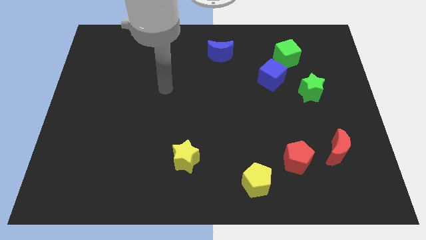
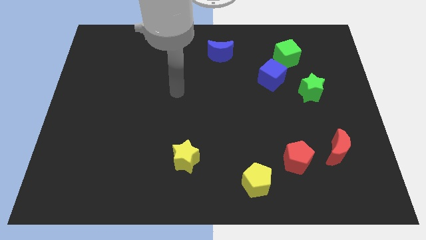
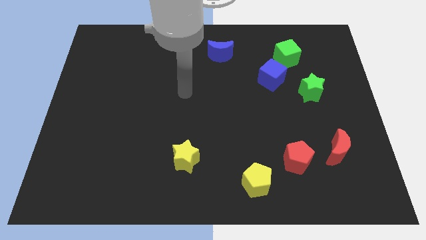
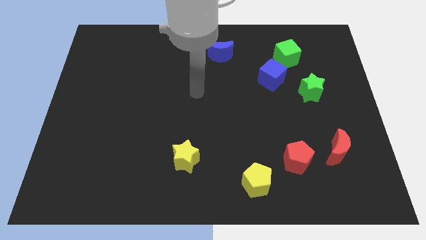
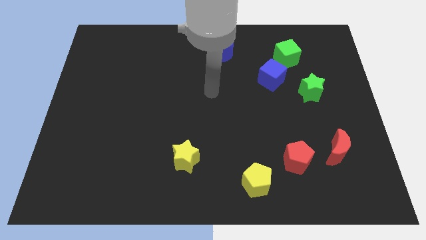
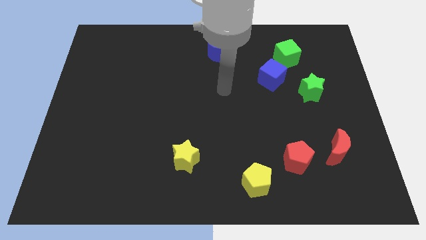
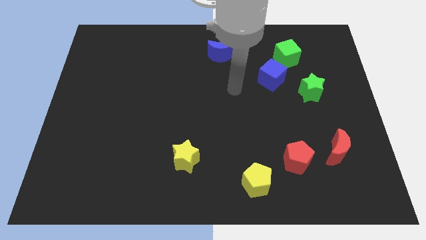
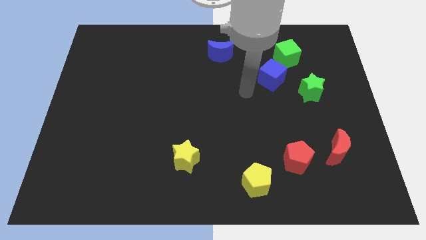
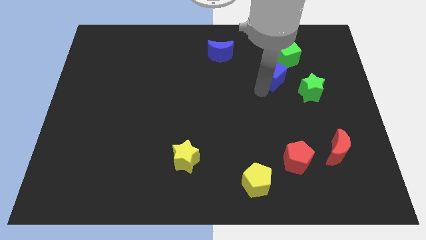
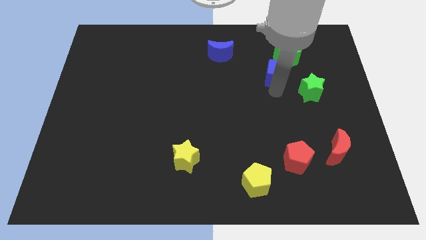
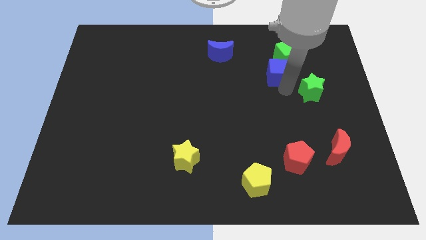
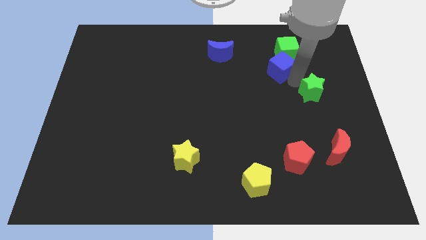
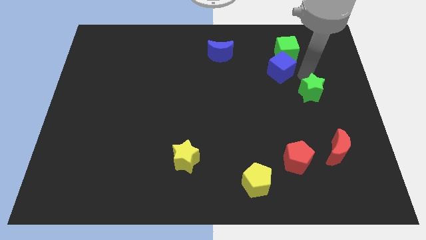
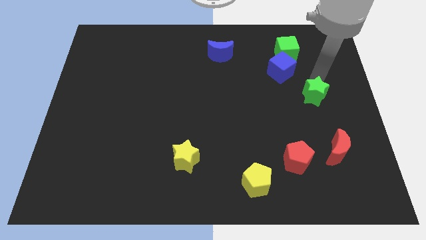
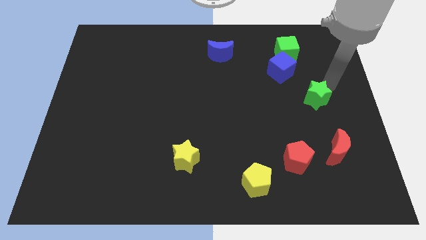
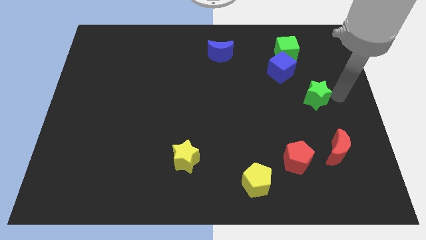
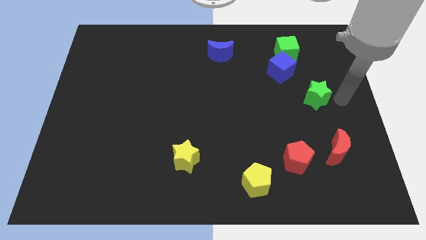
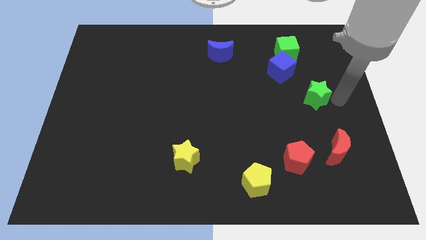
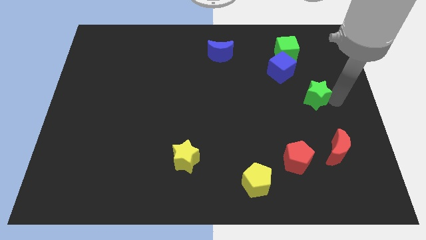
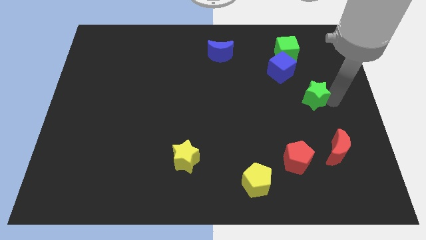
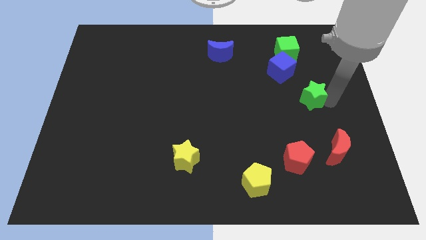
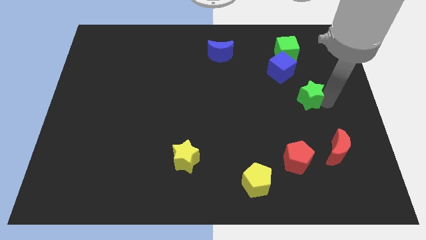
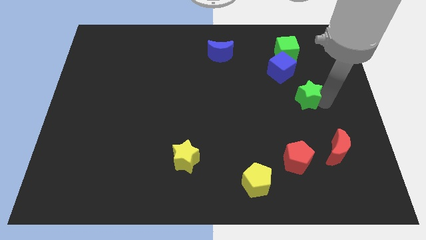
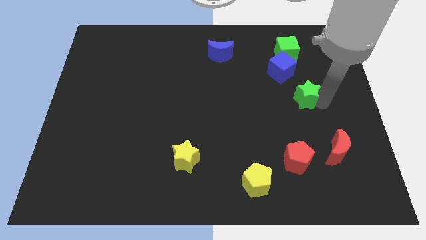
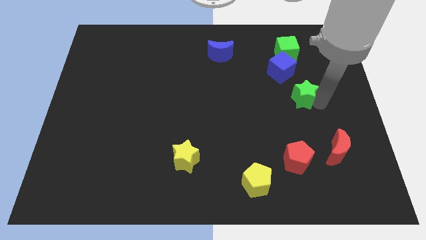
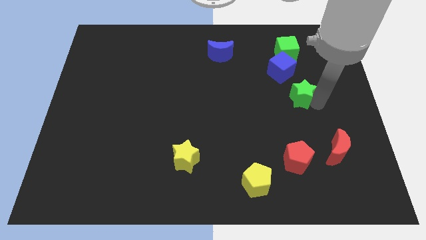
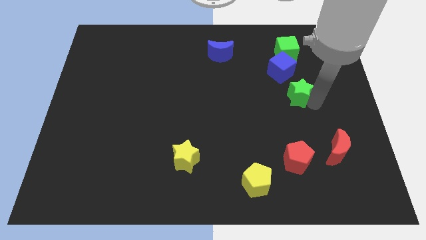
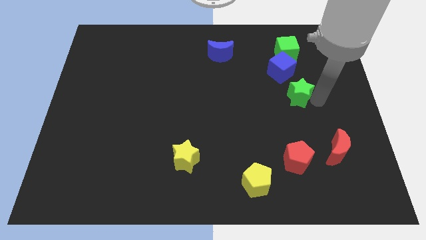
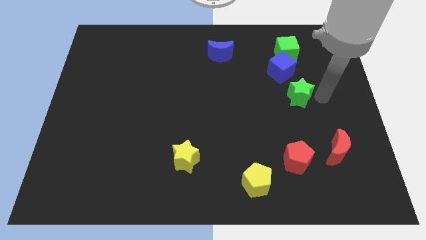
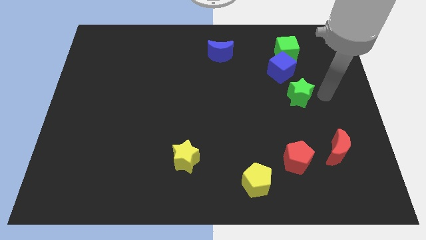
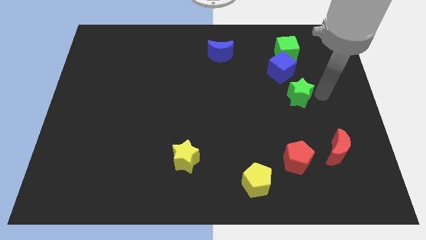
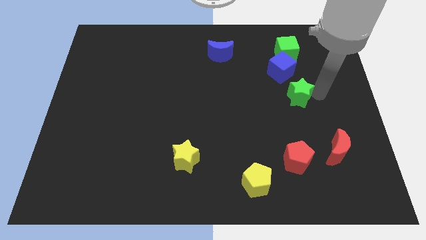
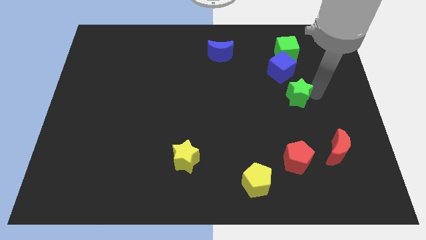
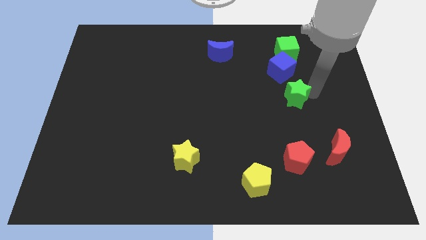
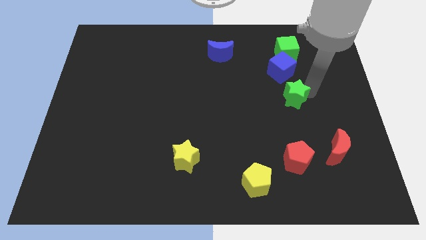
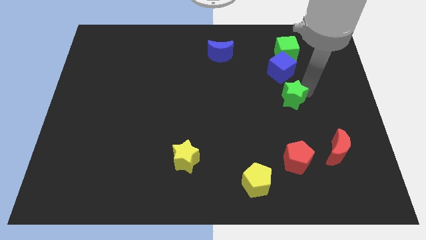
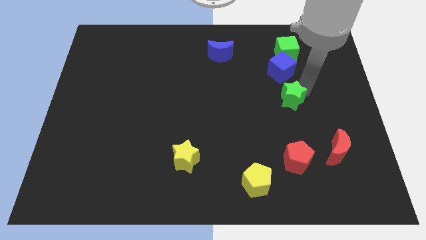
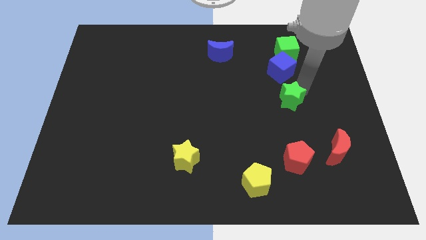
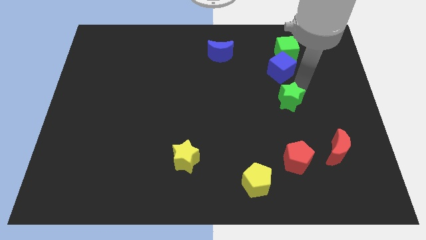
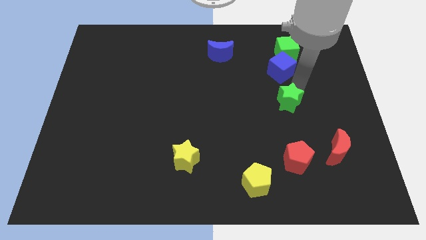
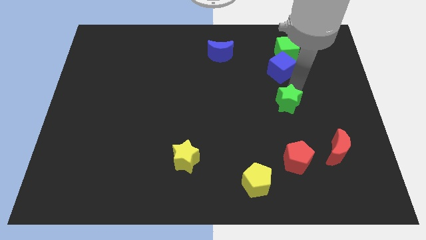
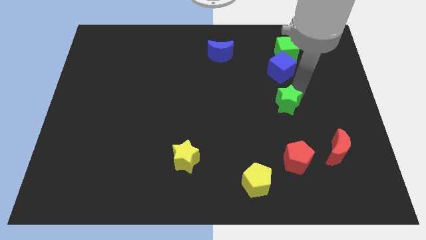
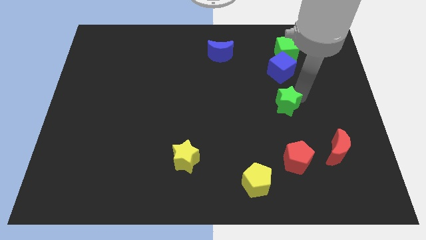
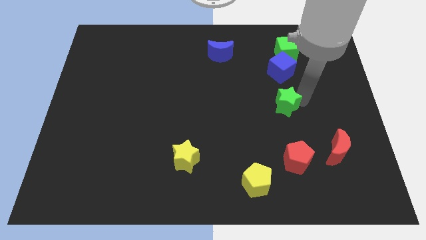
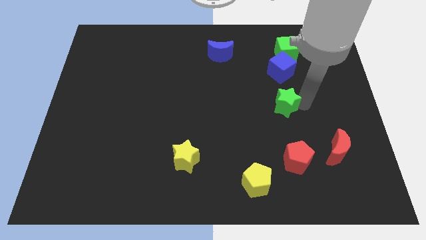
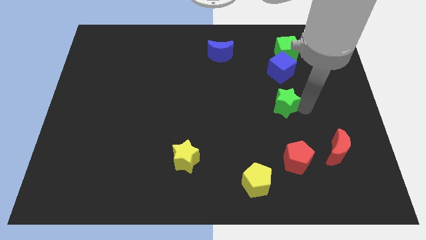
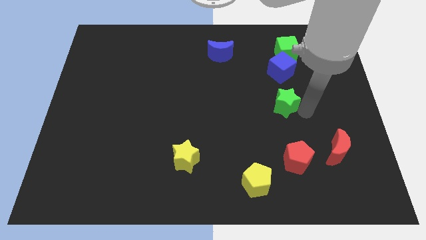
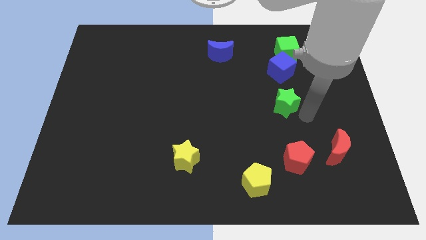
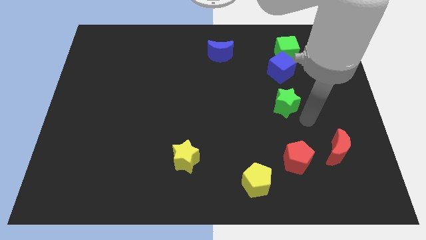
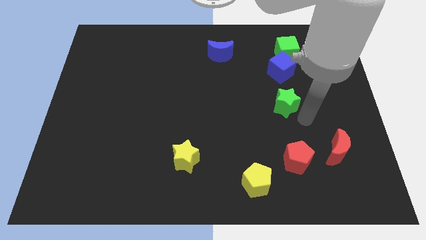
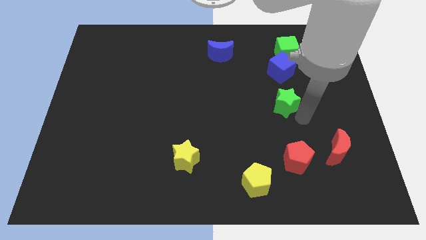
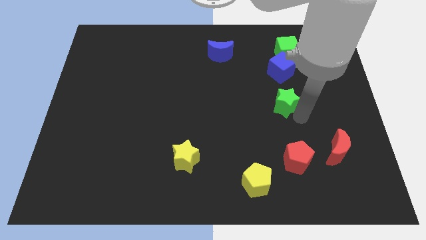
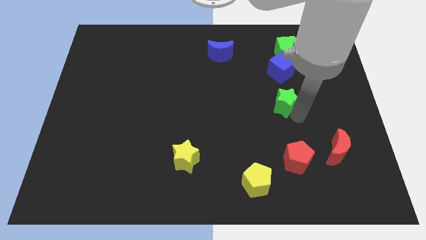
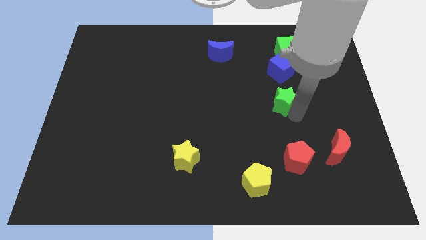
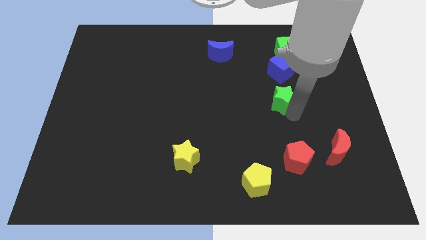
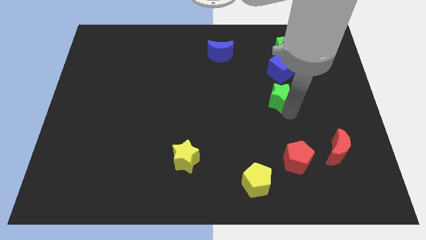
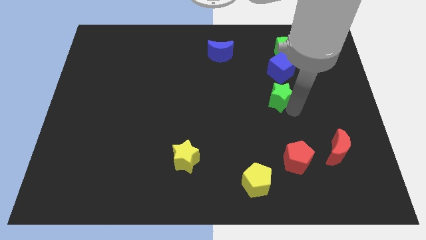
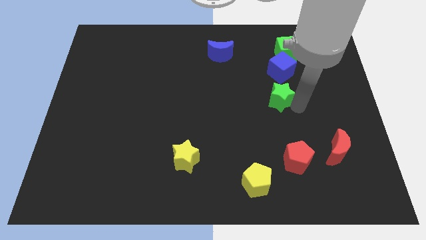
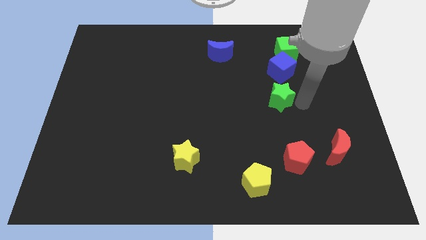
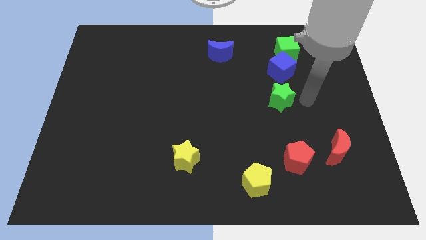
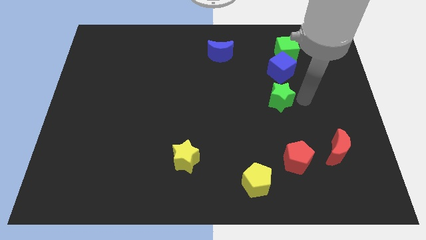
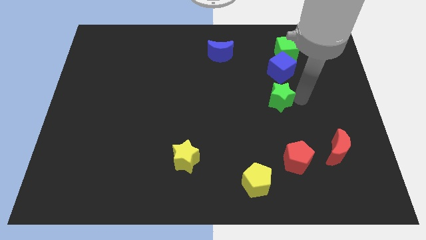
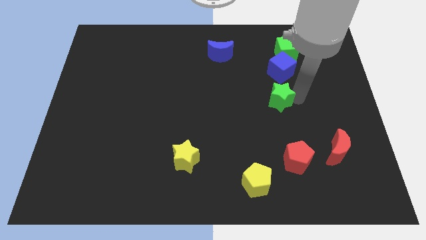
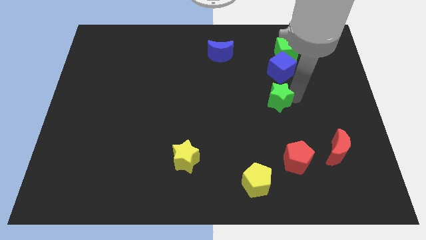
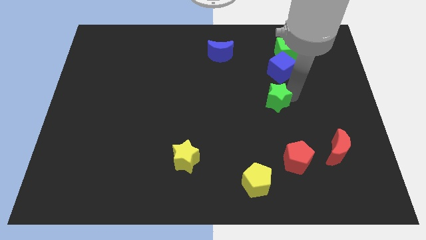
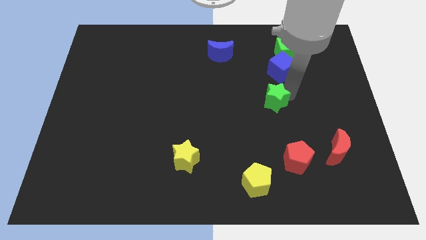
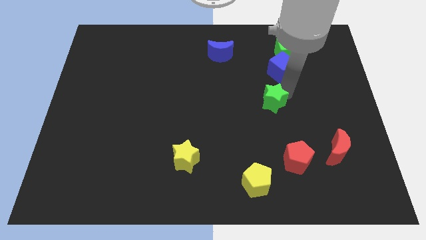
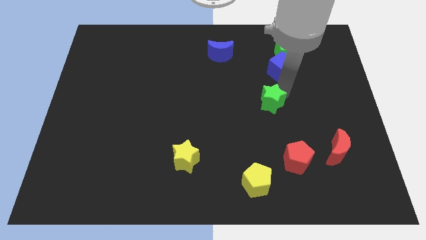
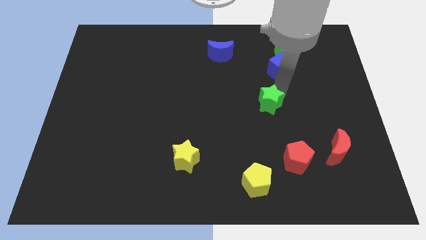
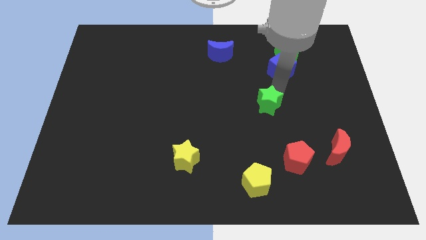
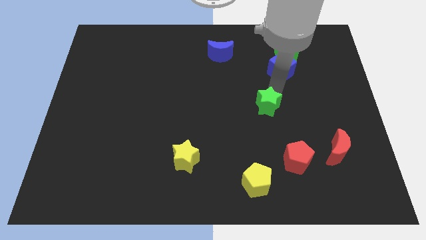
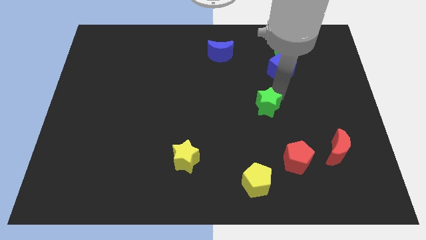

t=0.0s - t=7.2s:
slide the green star to the center
